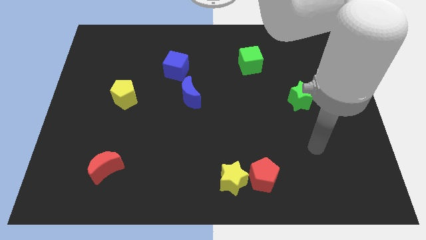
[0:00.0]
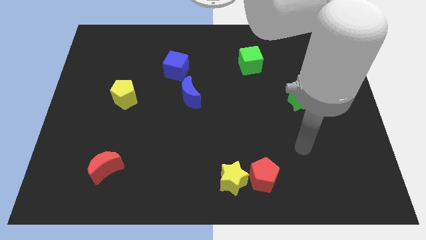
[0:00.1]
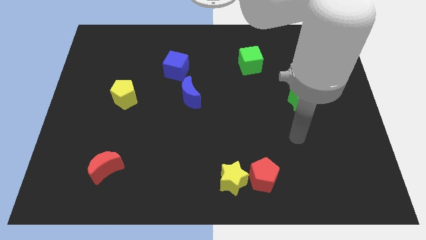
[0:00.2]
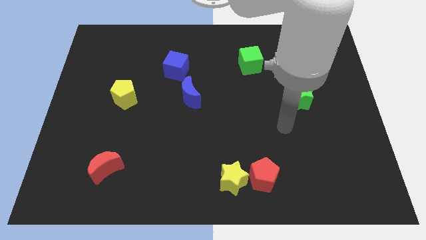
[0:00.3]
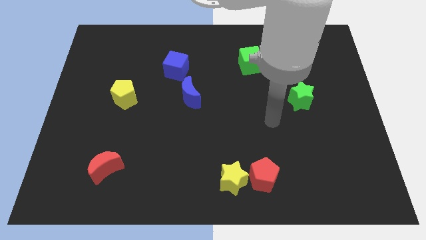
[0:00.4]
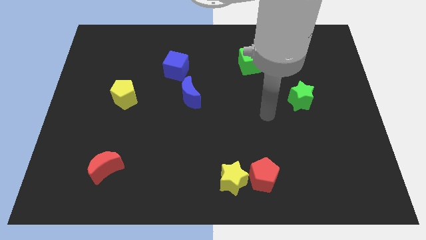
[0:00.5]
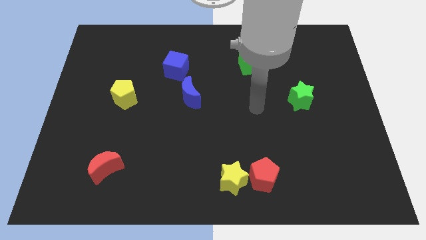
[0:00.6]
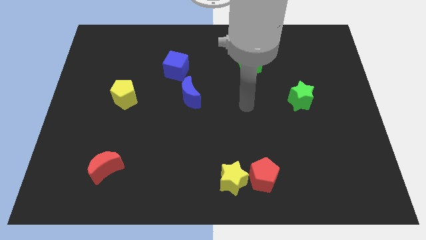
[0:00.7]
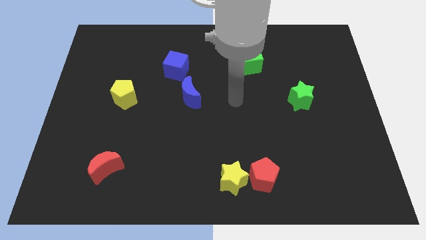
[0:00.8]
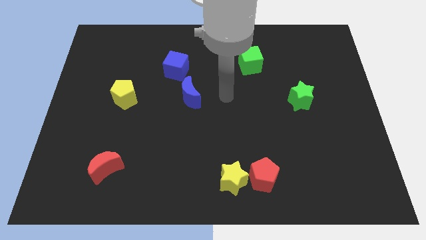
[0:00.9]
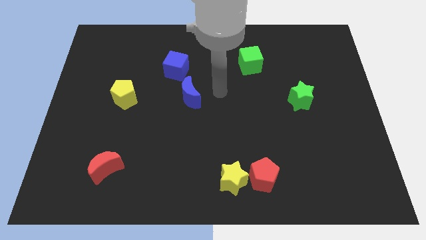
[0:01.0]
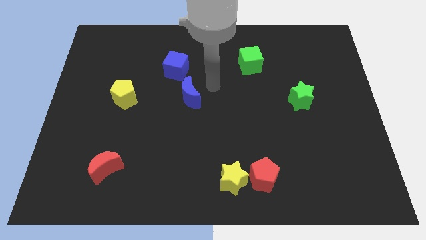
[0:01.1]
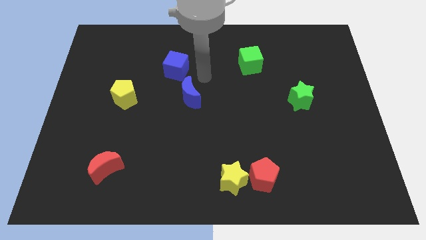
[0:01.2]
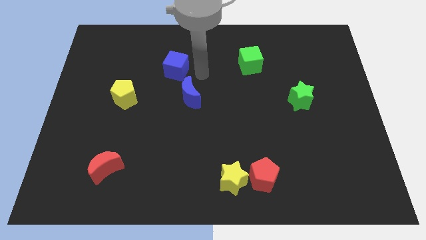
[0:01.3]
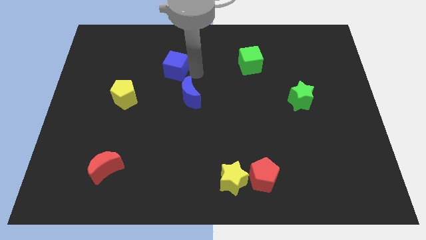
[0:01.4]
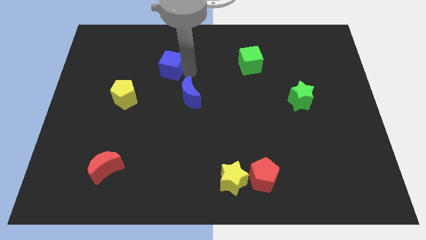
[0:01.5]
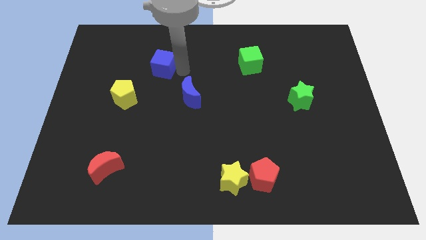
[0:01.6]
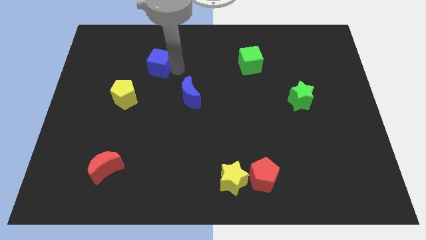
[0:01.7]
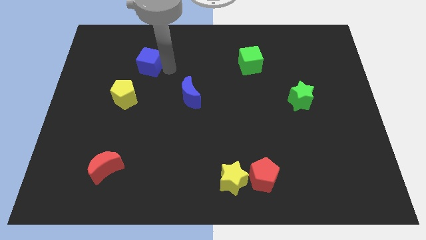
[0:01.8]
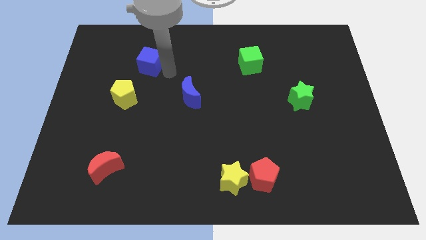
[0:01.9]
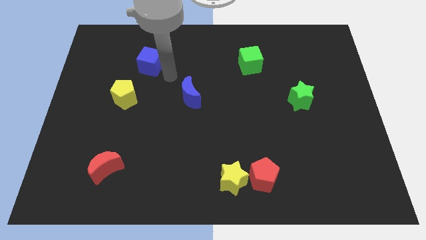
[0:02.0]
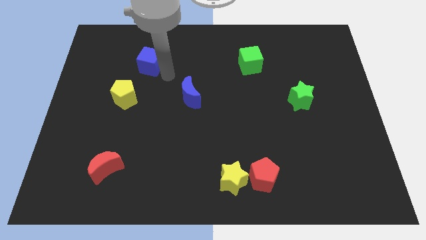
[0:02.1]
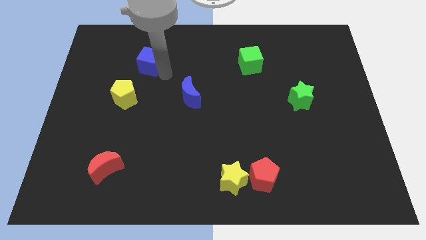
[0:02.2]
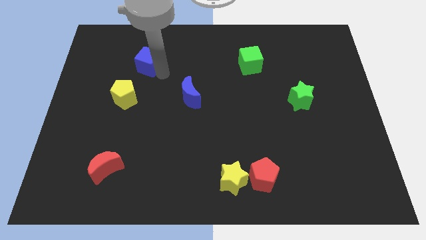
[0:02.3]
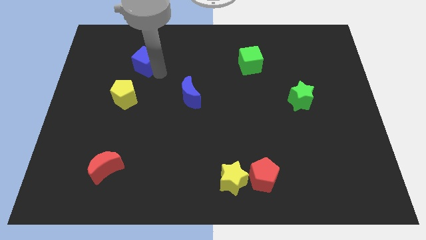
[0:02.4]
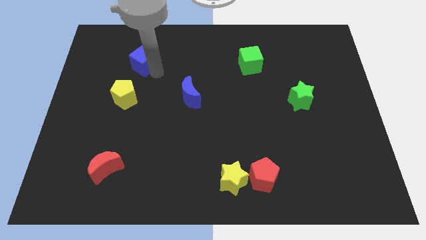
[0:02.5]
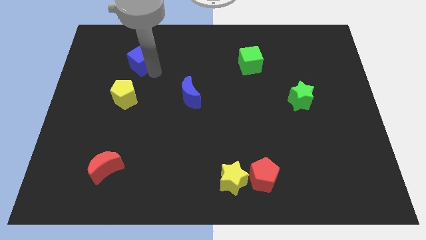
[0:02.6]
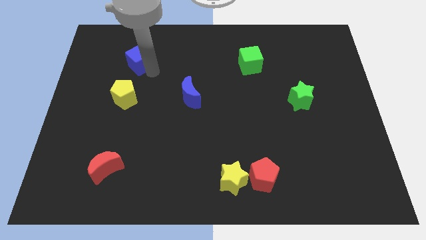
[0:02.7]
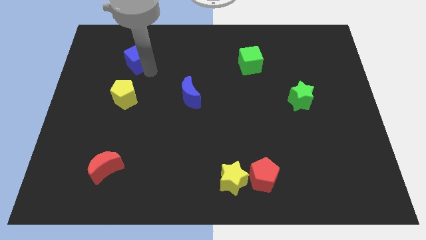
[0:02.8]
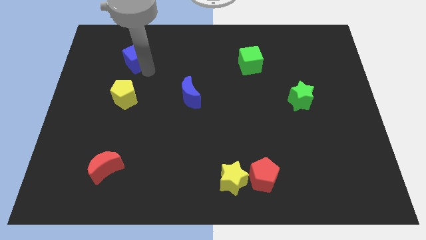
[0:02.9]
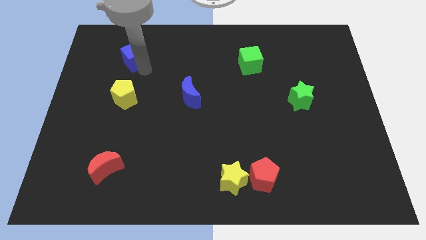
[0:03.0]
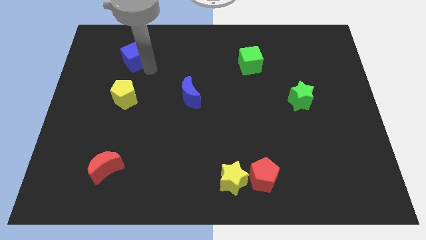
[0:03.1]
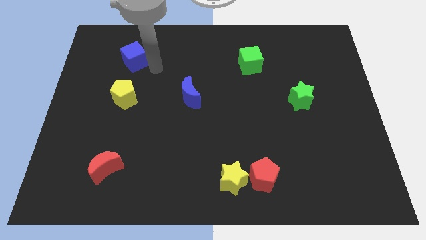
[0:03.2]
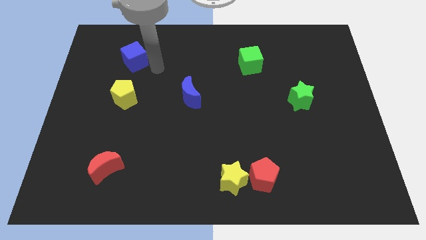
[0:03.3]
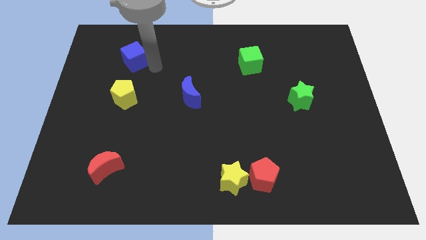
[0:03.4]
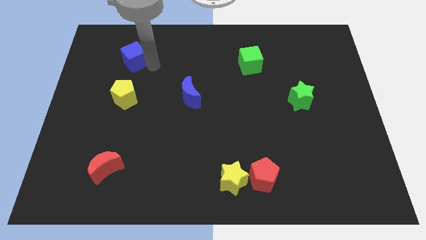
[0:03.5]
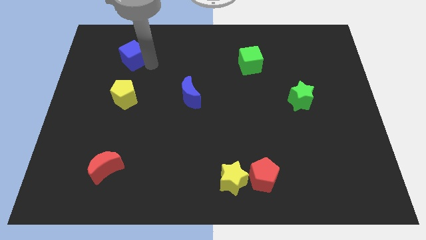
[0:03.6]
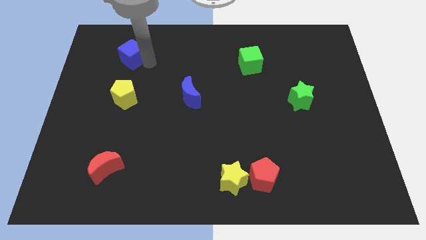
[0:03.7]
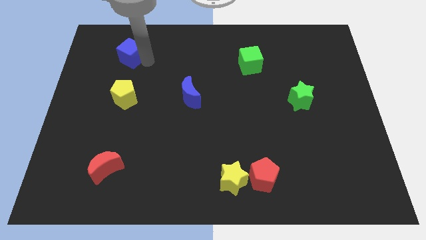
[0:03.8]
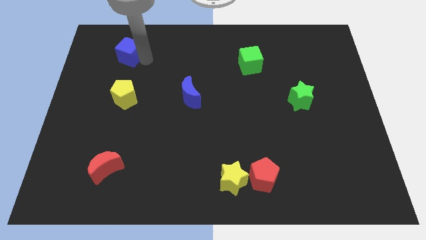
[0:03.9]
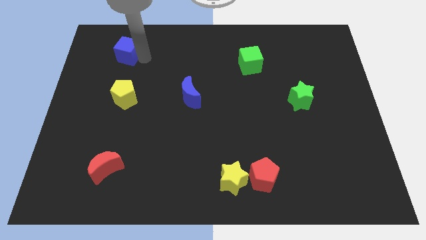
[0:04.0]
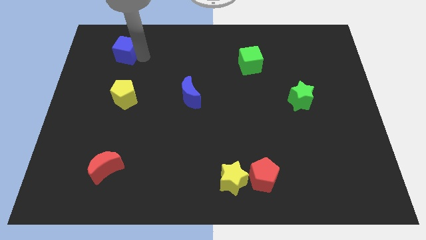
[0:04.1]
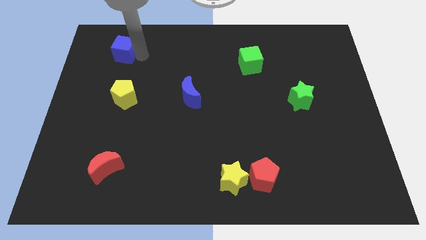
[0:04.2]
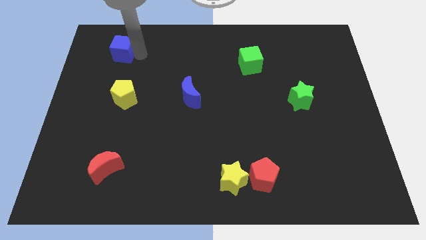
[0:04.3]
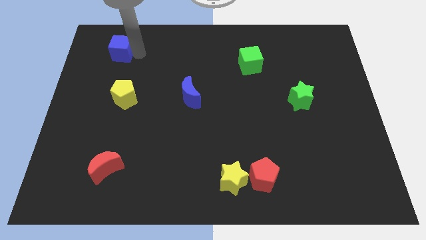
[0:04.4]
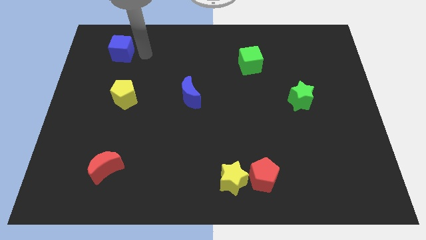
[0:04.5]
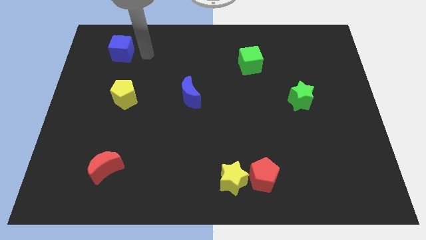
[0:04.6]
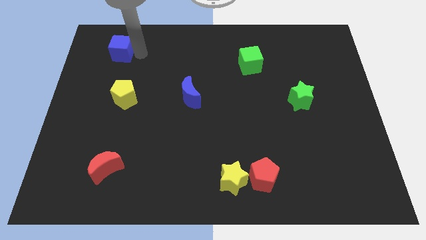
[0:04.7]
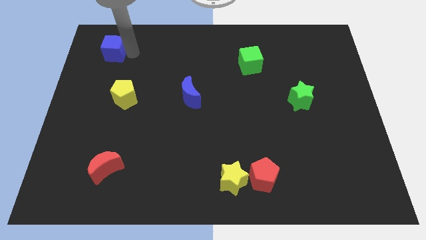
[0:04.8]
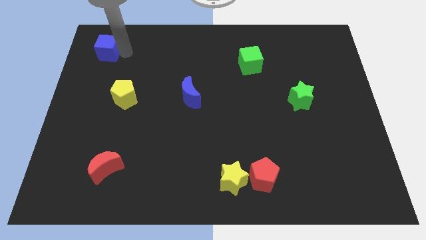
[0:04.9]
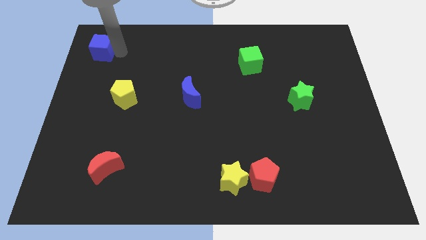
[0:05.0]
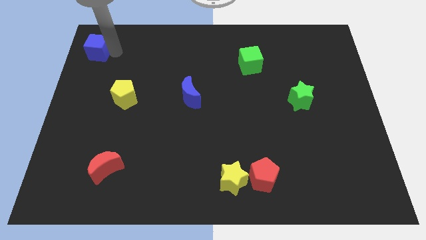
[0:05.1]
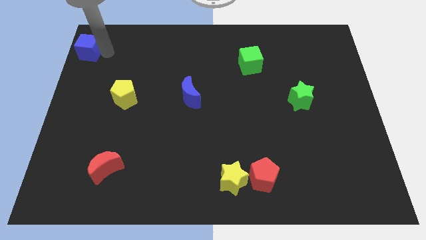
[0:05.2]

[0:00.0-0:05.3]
push the blue cube to the upper left corner

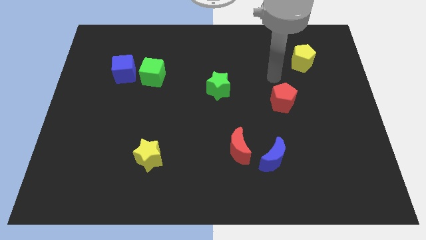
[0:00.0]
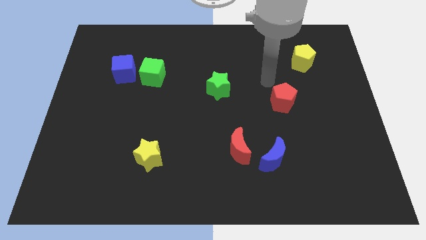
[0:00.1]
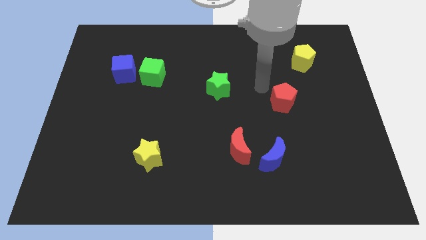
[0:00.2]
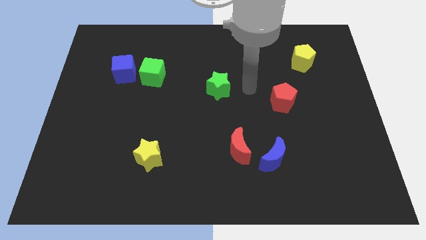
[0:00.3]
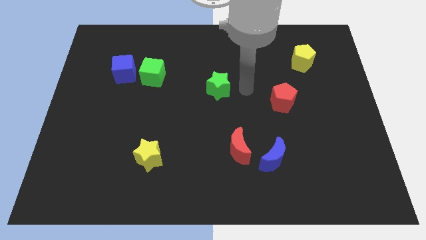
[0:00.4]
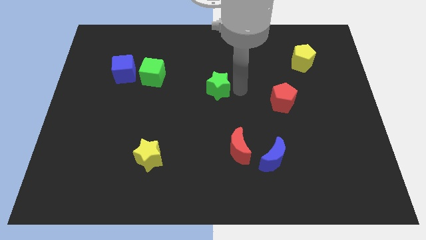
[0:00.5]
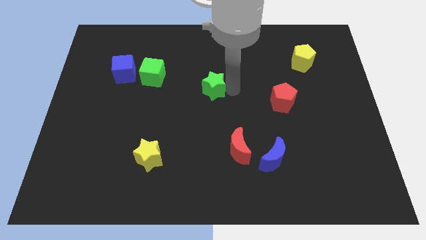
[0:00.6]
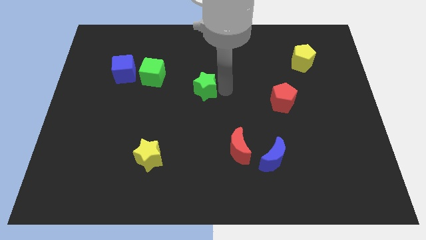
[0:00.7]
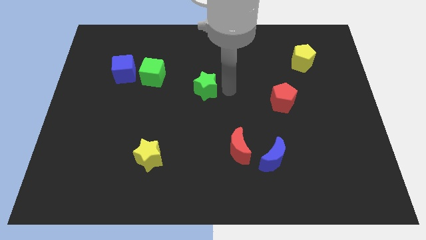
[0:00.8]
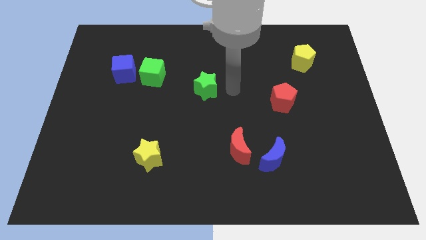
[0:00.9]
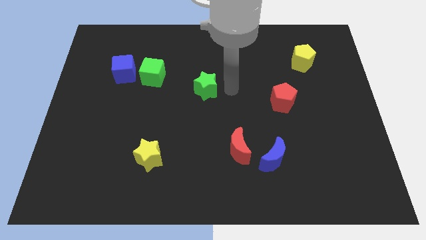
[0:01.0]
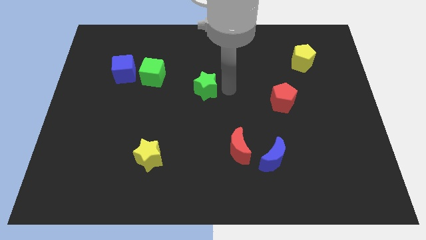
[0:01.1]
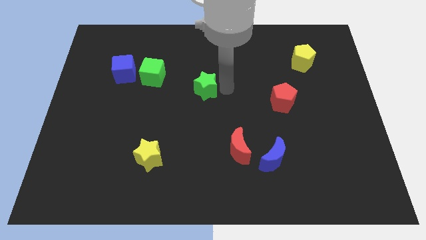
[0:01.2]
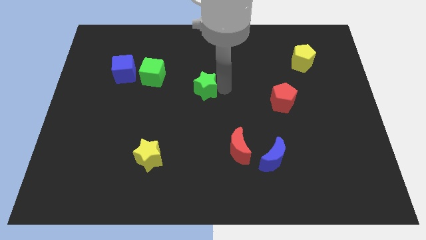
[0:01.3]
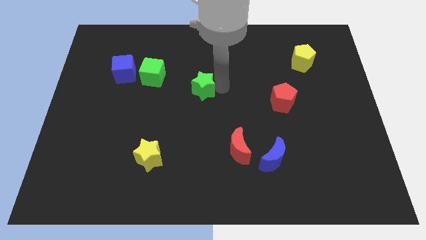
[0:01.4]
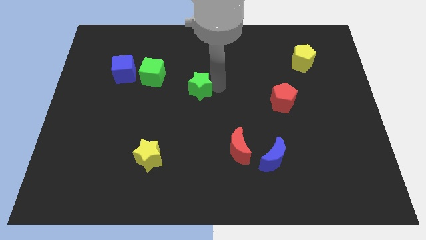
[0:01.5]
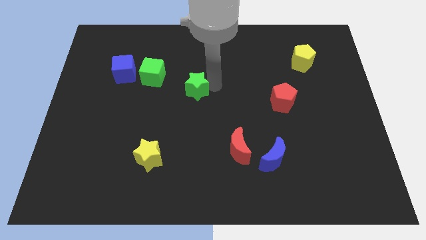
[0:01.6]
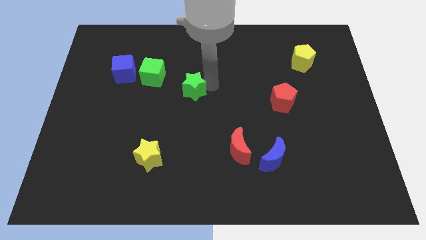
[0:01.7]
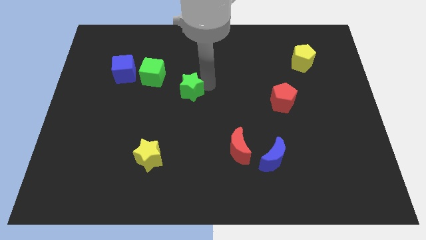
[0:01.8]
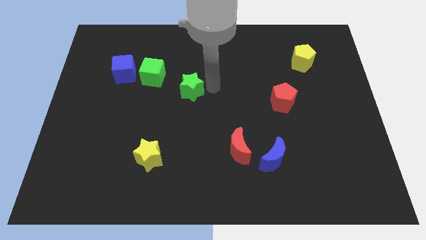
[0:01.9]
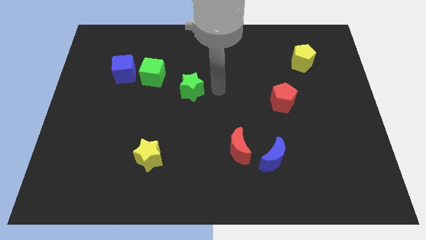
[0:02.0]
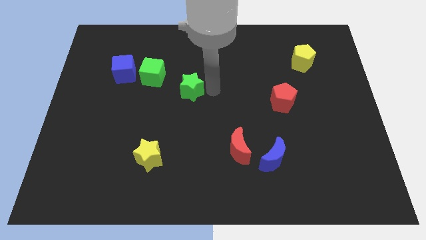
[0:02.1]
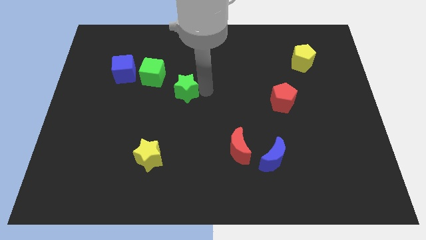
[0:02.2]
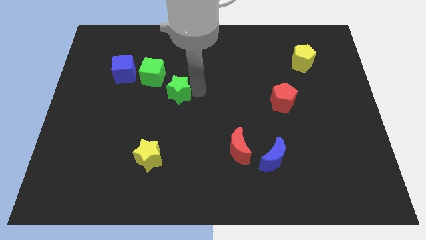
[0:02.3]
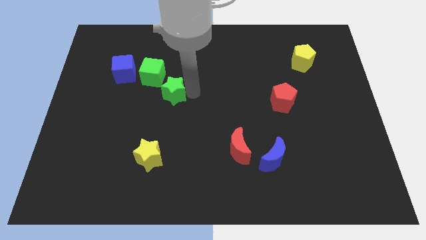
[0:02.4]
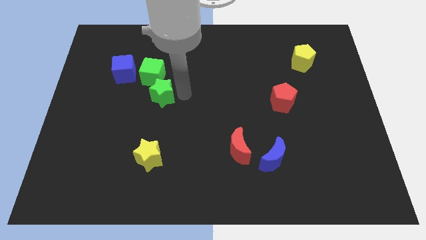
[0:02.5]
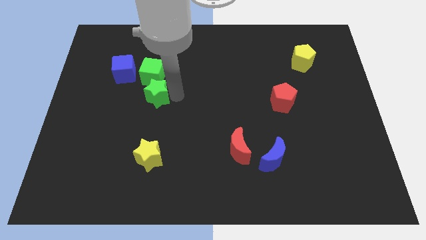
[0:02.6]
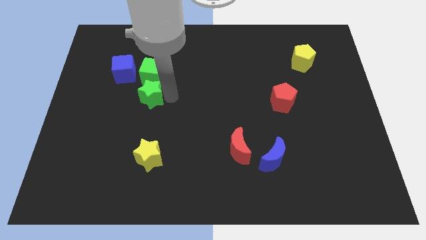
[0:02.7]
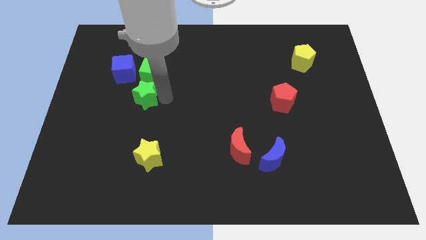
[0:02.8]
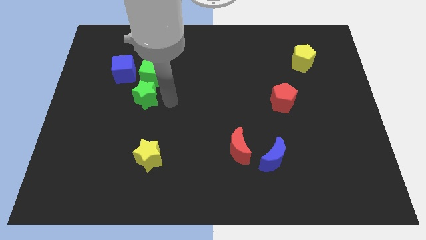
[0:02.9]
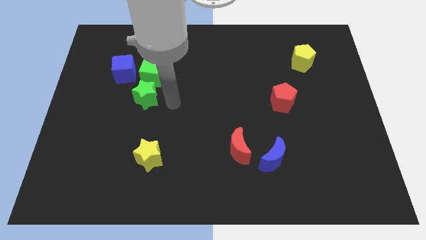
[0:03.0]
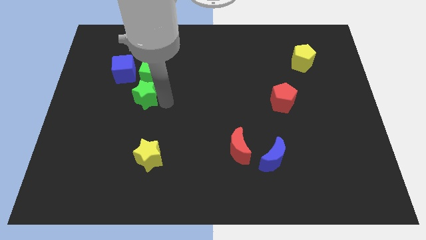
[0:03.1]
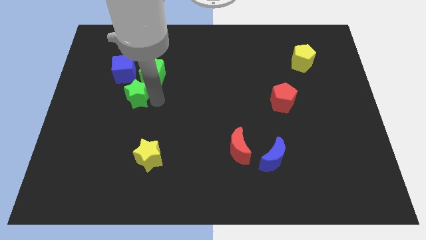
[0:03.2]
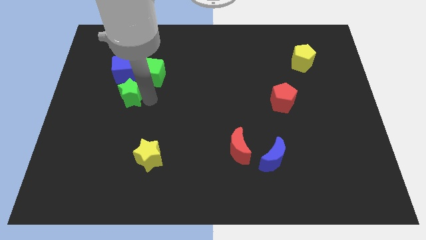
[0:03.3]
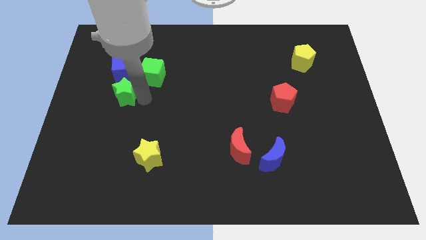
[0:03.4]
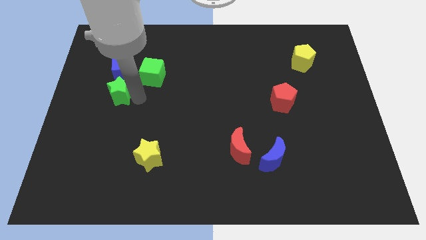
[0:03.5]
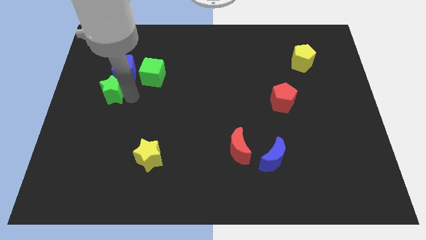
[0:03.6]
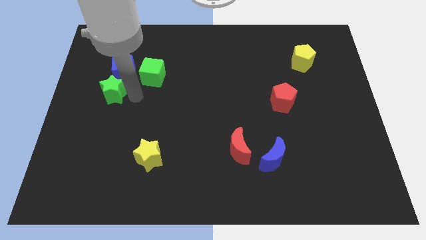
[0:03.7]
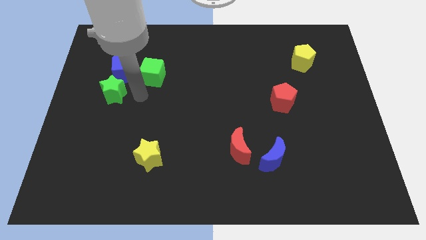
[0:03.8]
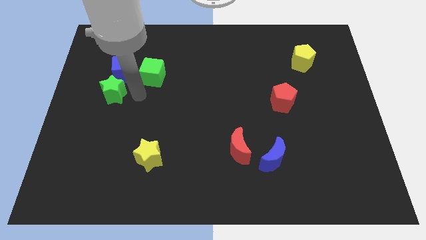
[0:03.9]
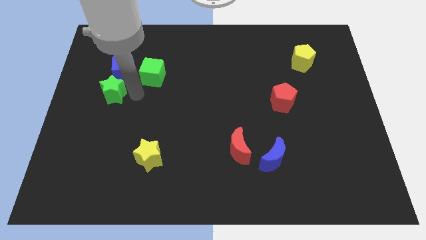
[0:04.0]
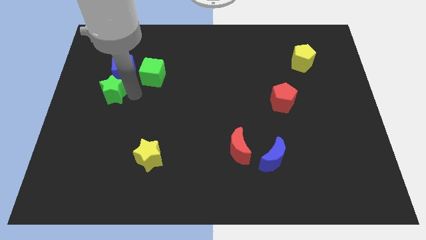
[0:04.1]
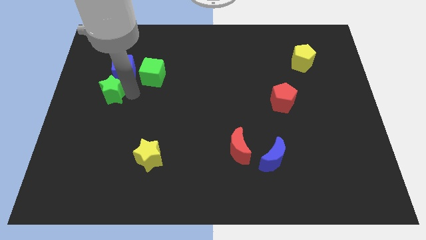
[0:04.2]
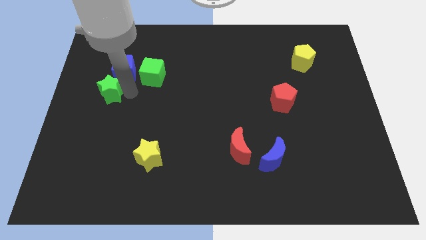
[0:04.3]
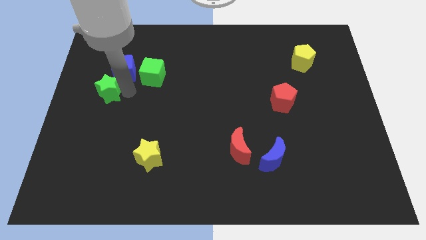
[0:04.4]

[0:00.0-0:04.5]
slide the green star to the center left
